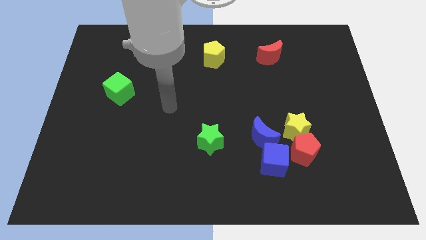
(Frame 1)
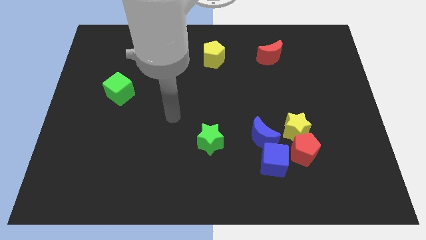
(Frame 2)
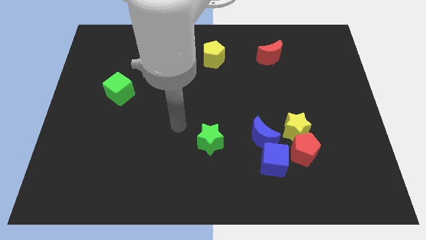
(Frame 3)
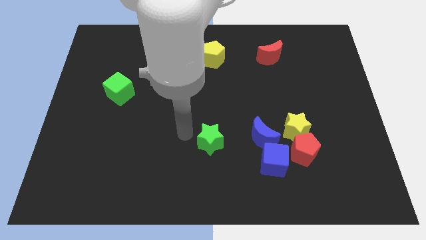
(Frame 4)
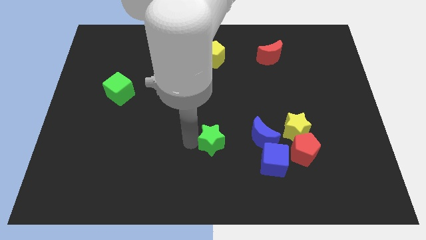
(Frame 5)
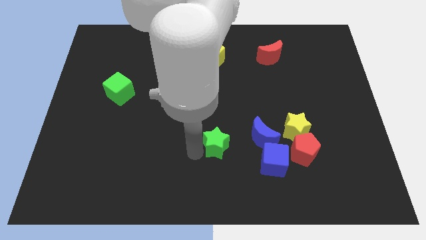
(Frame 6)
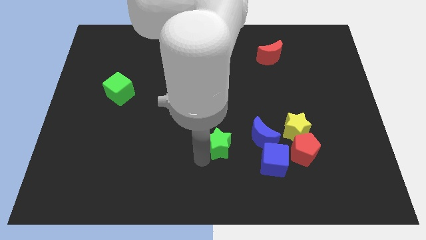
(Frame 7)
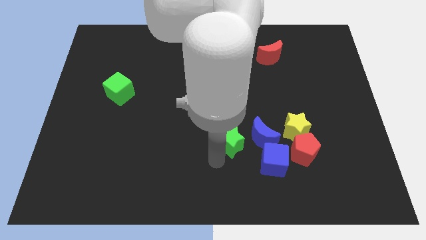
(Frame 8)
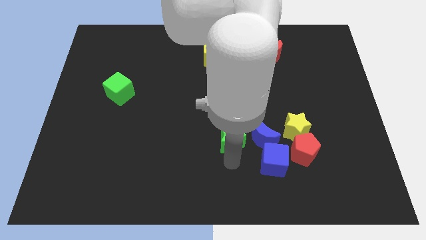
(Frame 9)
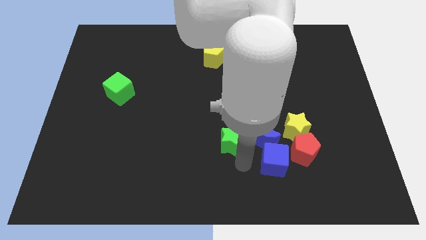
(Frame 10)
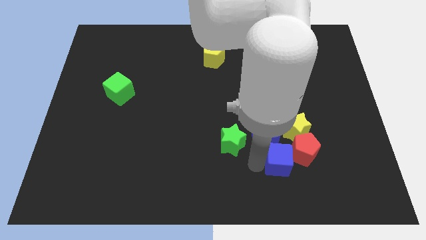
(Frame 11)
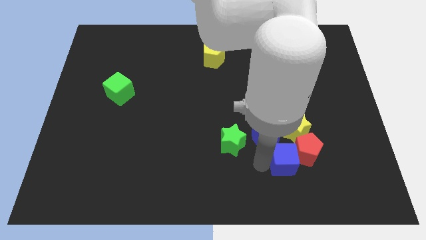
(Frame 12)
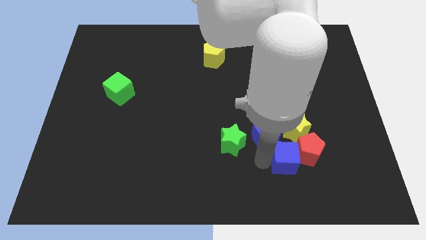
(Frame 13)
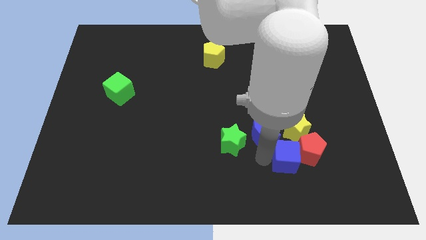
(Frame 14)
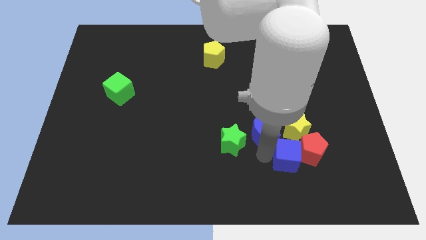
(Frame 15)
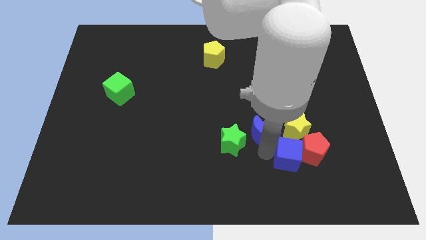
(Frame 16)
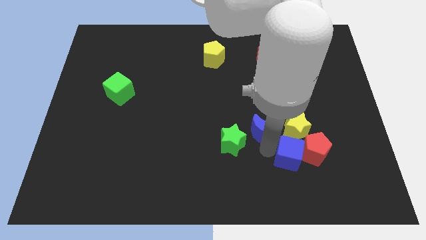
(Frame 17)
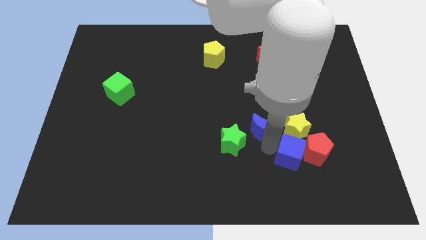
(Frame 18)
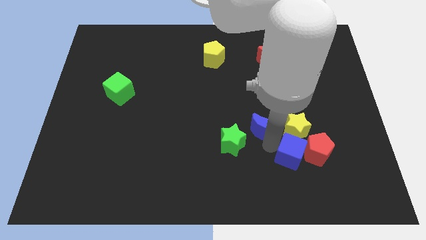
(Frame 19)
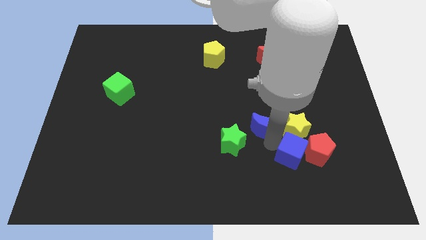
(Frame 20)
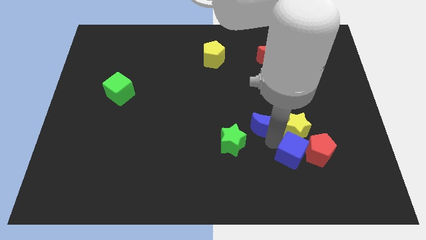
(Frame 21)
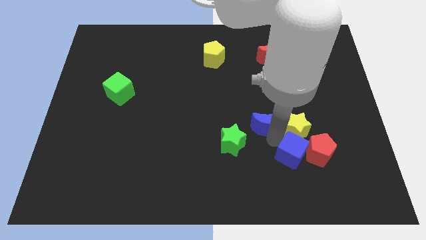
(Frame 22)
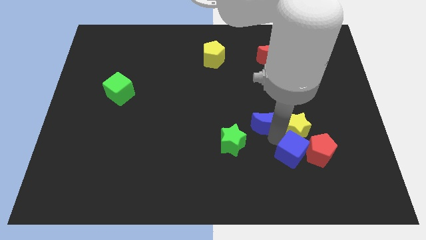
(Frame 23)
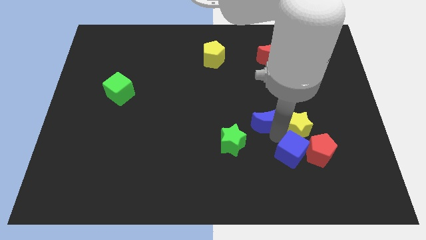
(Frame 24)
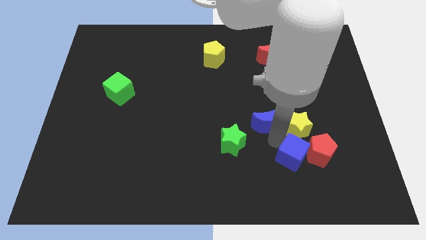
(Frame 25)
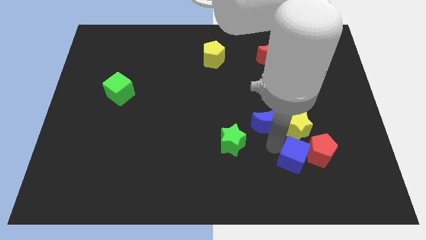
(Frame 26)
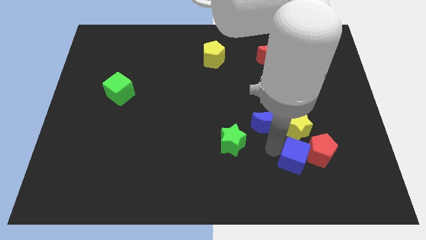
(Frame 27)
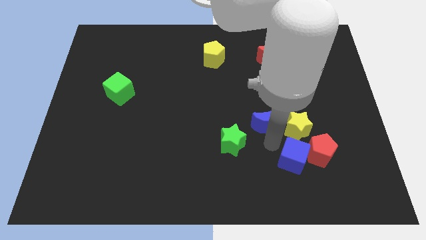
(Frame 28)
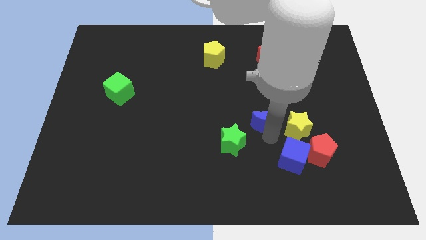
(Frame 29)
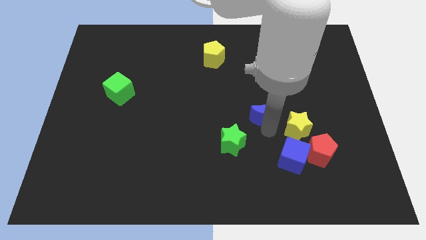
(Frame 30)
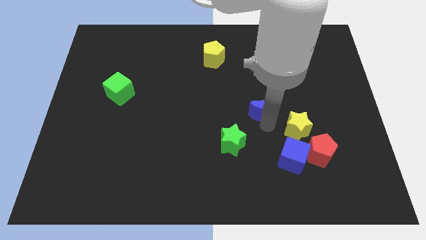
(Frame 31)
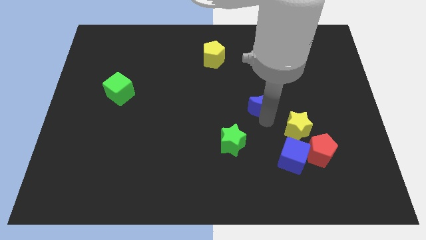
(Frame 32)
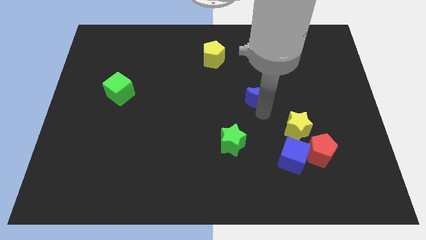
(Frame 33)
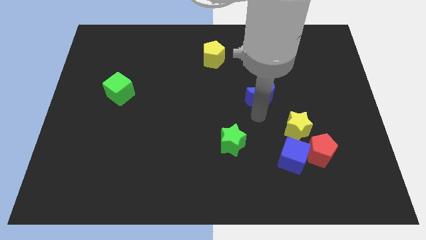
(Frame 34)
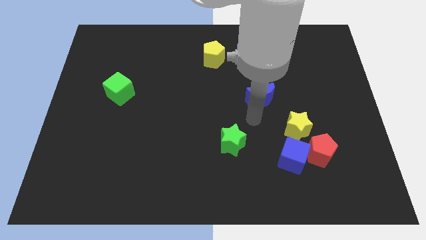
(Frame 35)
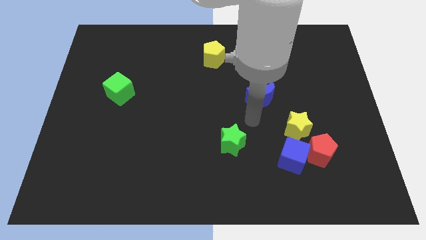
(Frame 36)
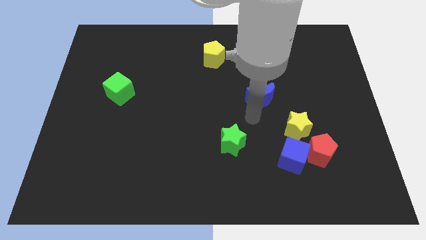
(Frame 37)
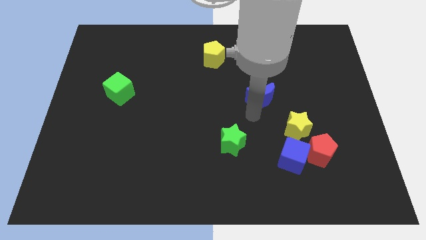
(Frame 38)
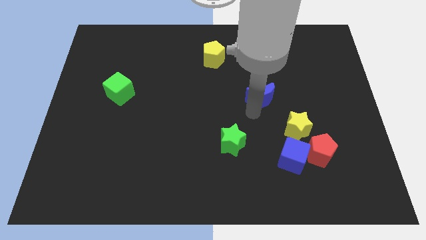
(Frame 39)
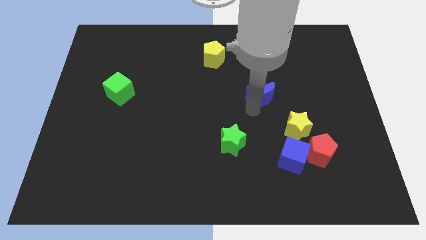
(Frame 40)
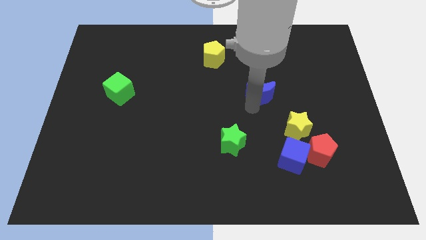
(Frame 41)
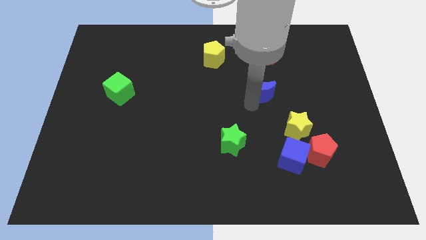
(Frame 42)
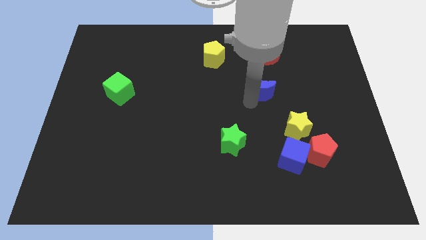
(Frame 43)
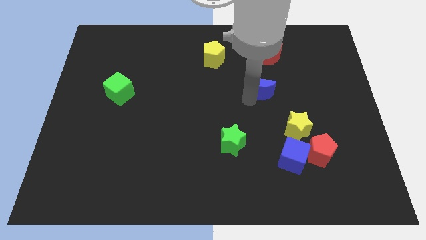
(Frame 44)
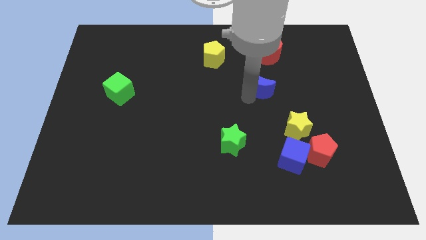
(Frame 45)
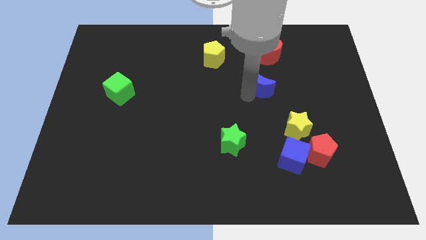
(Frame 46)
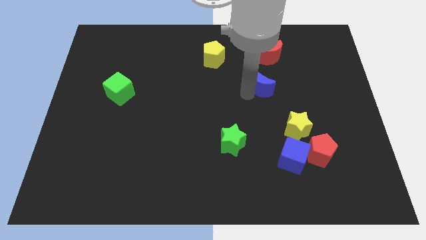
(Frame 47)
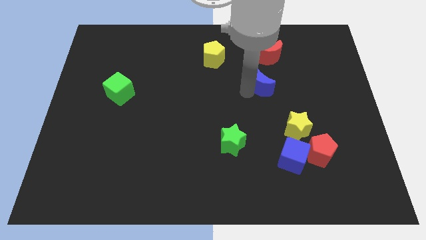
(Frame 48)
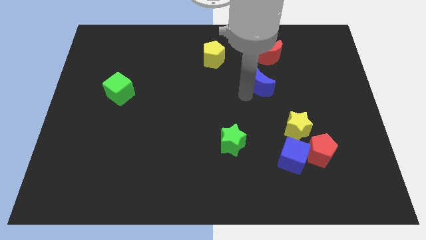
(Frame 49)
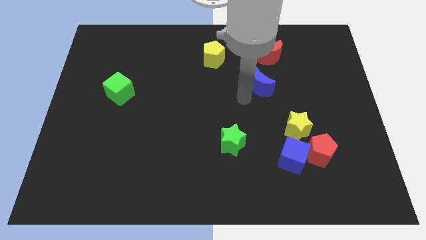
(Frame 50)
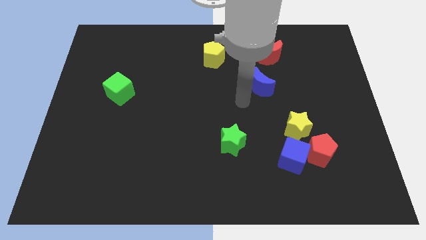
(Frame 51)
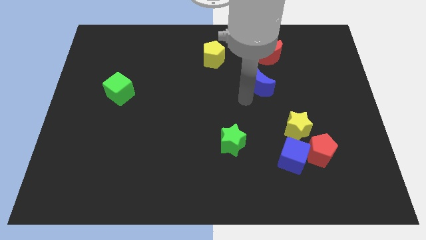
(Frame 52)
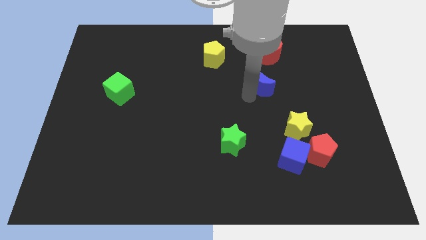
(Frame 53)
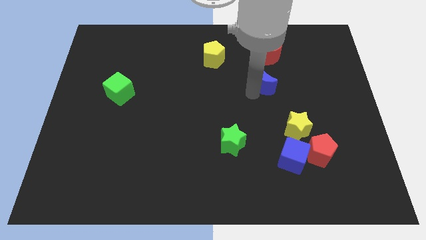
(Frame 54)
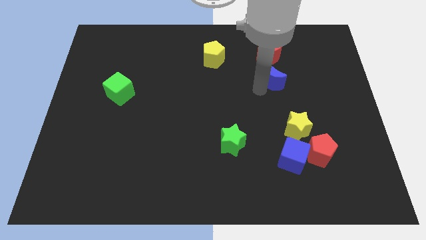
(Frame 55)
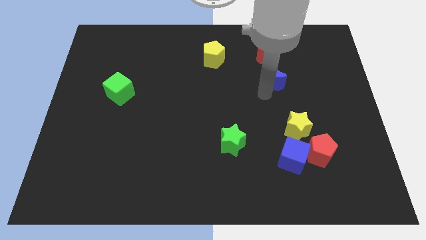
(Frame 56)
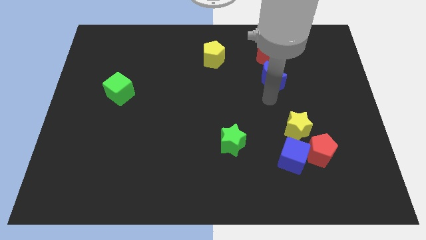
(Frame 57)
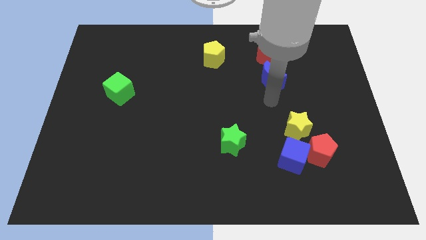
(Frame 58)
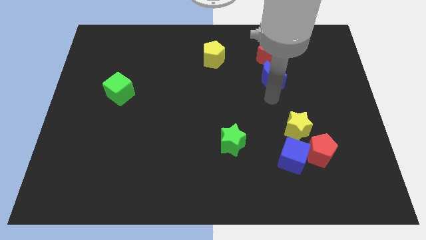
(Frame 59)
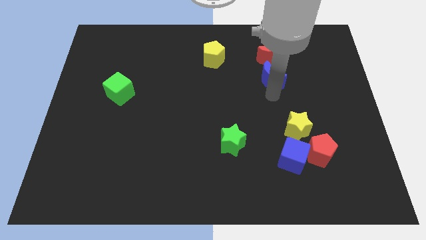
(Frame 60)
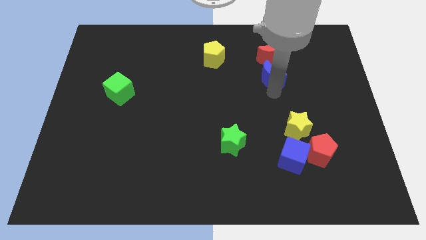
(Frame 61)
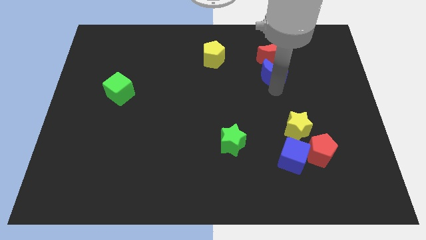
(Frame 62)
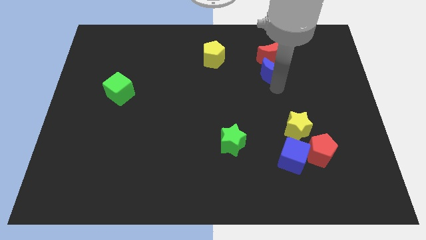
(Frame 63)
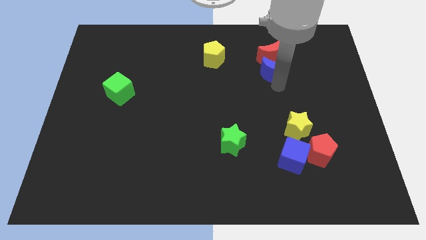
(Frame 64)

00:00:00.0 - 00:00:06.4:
push the blue moon next to the red moon

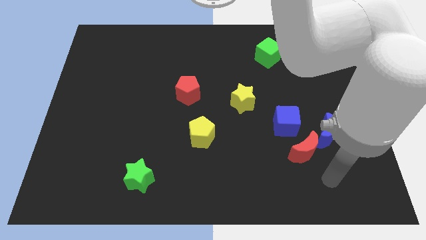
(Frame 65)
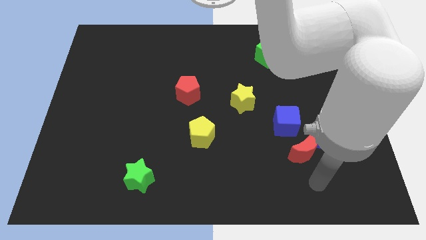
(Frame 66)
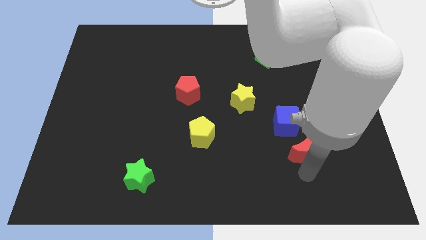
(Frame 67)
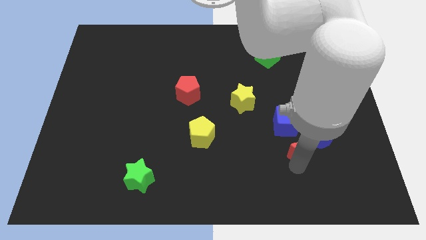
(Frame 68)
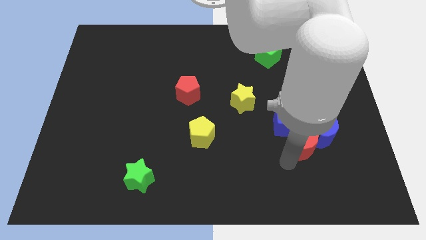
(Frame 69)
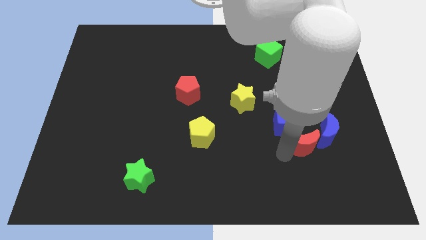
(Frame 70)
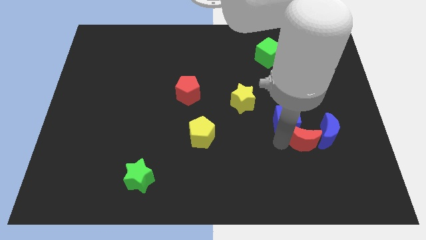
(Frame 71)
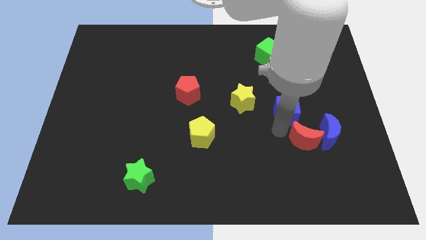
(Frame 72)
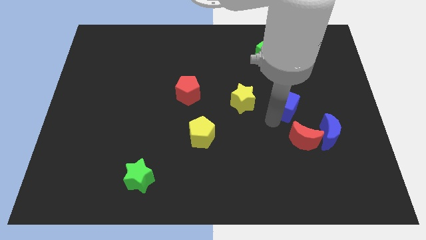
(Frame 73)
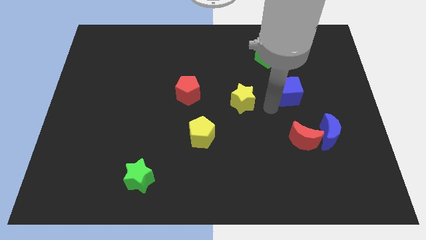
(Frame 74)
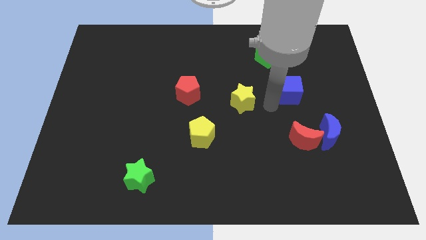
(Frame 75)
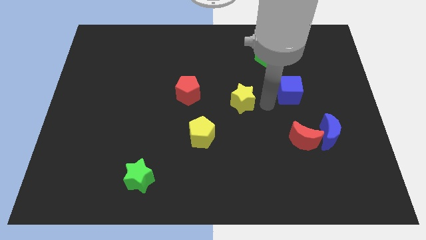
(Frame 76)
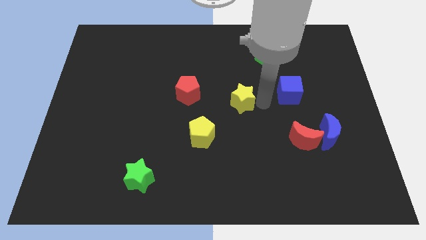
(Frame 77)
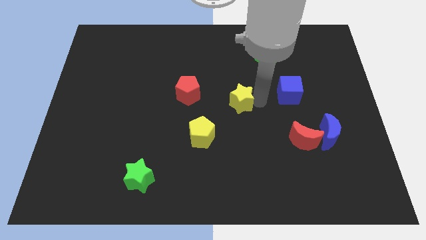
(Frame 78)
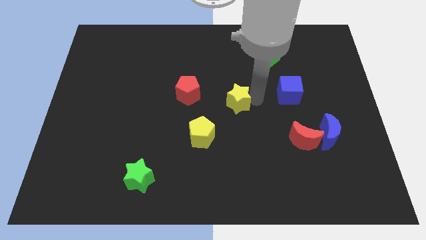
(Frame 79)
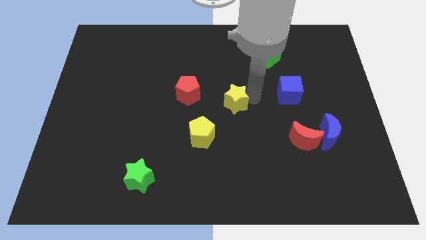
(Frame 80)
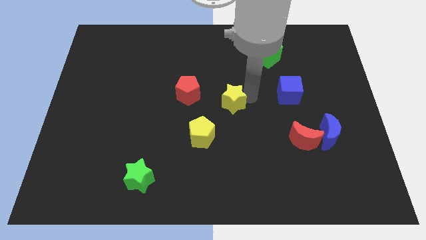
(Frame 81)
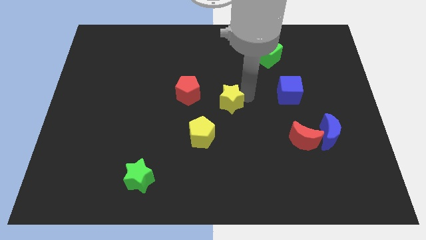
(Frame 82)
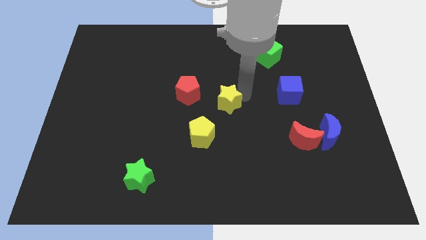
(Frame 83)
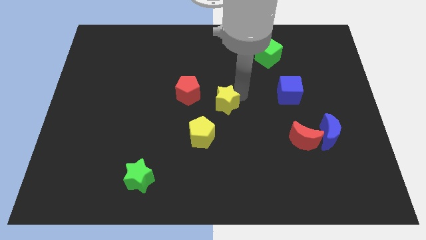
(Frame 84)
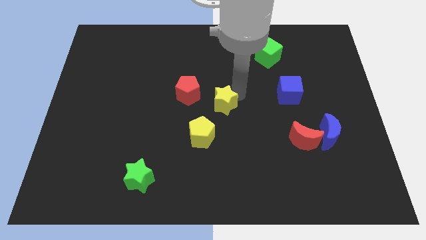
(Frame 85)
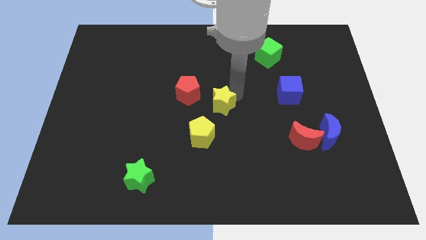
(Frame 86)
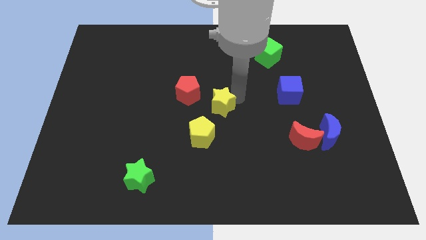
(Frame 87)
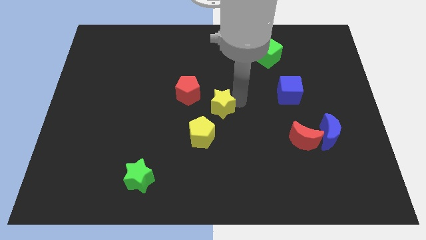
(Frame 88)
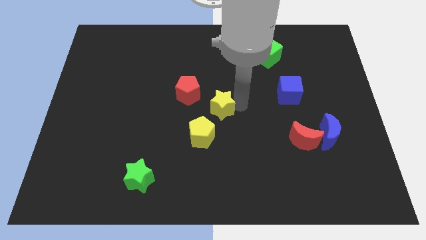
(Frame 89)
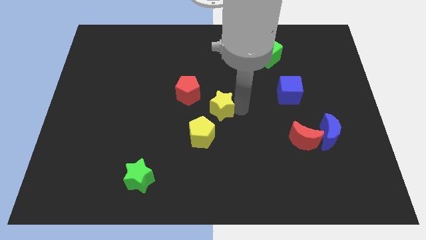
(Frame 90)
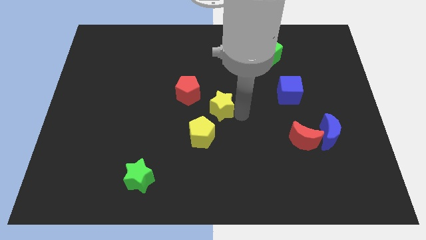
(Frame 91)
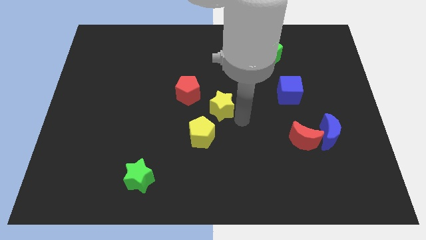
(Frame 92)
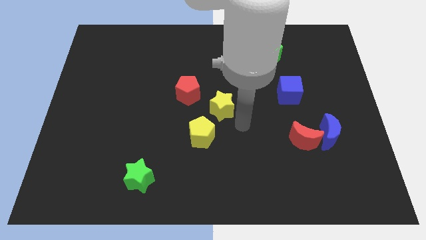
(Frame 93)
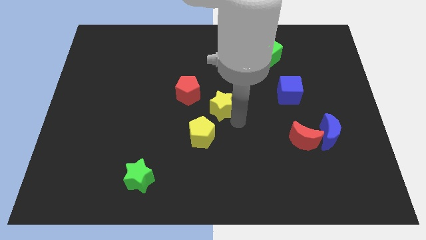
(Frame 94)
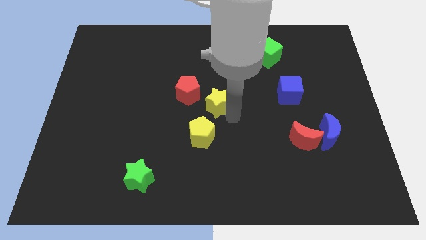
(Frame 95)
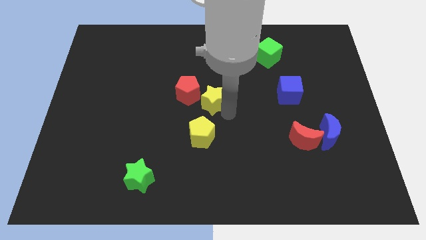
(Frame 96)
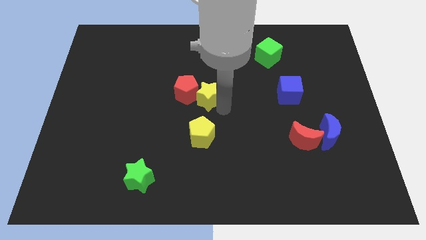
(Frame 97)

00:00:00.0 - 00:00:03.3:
slide the yellow star next to the red pentagon
